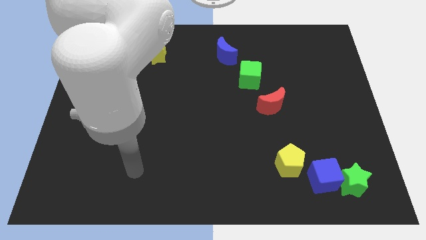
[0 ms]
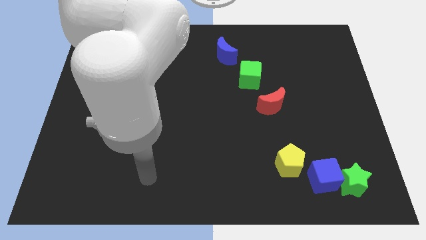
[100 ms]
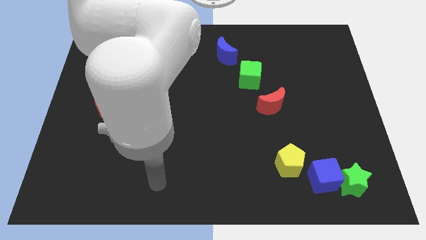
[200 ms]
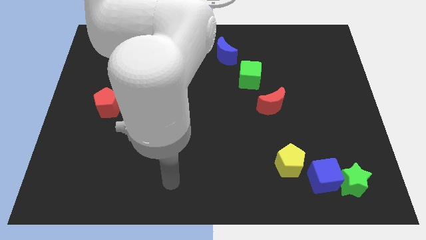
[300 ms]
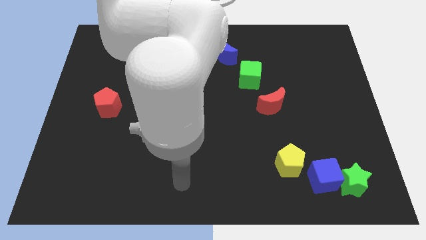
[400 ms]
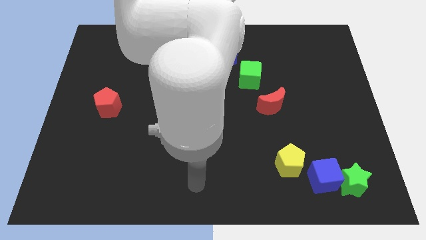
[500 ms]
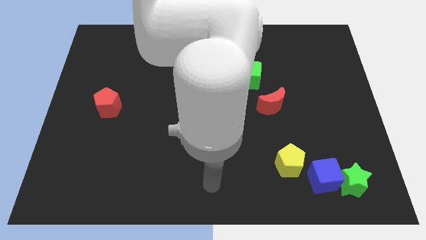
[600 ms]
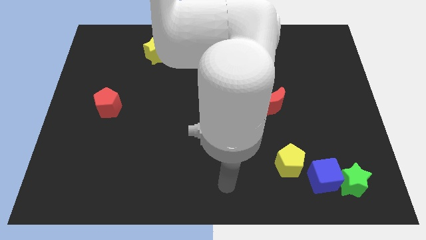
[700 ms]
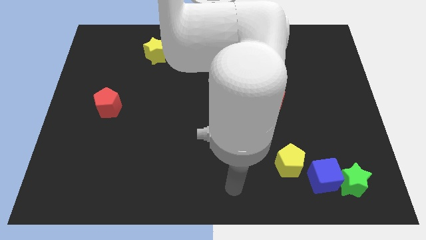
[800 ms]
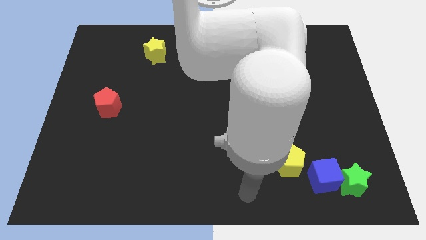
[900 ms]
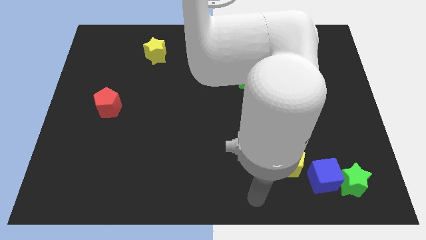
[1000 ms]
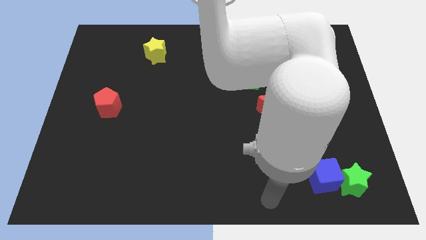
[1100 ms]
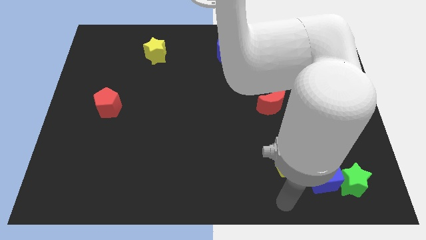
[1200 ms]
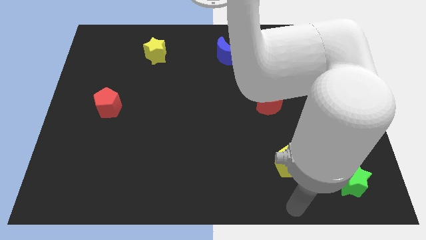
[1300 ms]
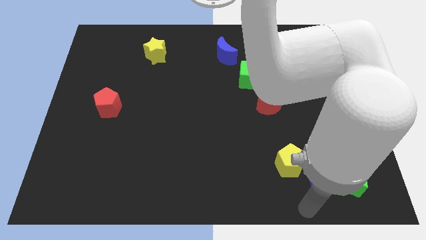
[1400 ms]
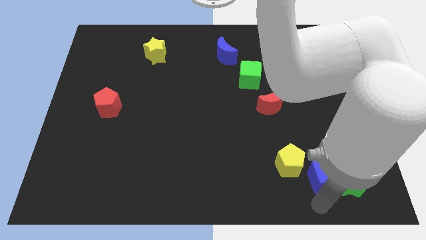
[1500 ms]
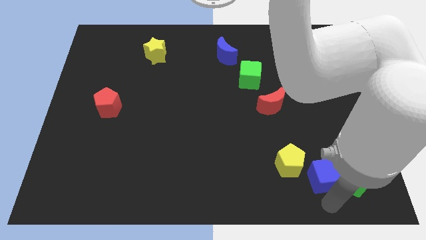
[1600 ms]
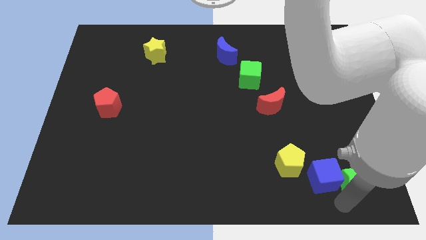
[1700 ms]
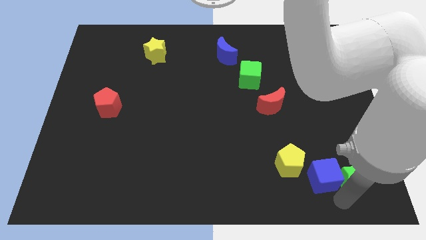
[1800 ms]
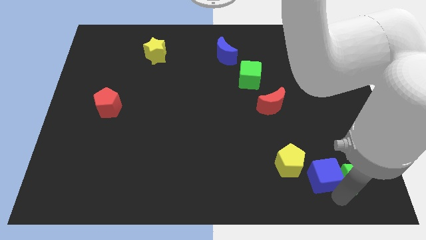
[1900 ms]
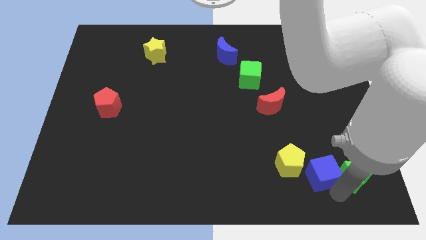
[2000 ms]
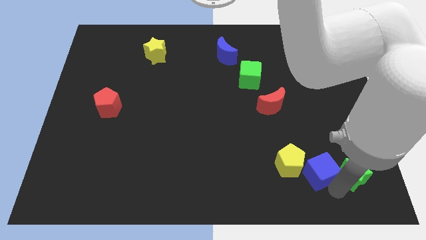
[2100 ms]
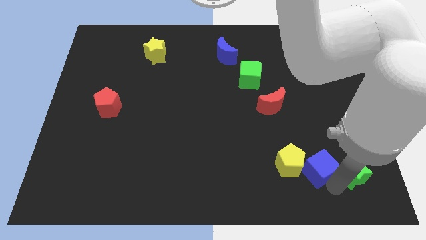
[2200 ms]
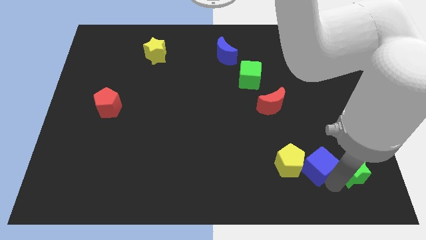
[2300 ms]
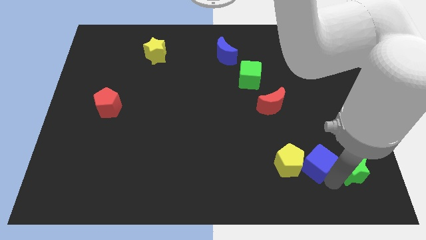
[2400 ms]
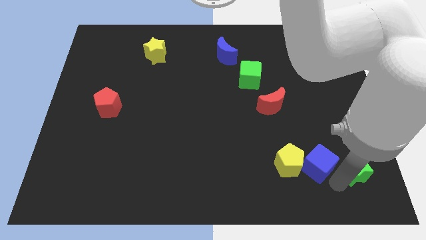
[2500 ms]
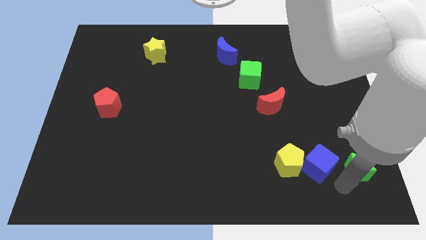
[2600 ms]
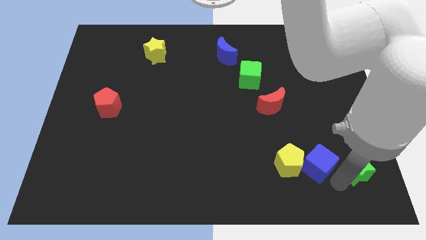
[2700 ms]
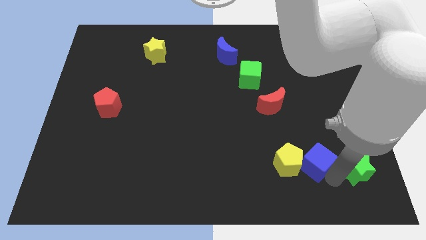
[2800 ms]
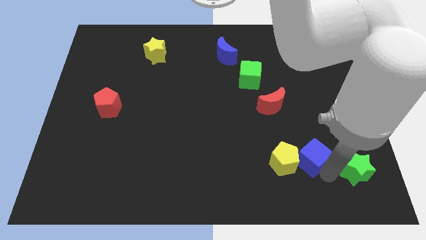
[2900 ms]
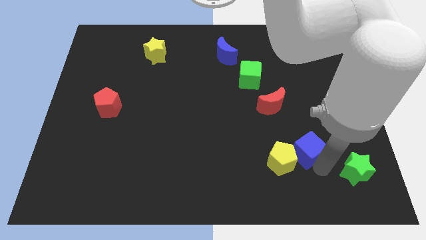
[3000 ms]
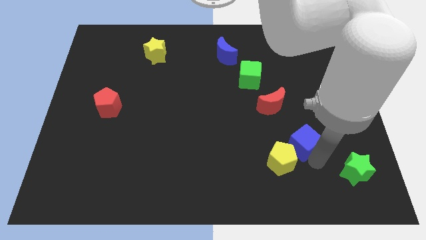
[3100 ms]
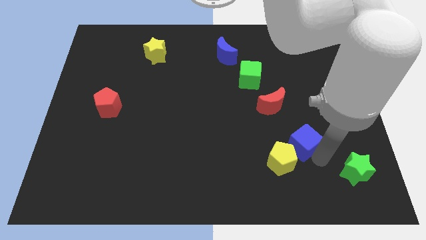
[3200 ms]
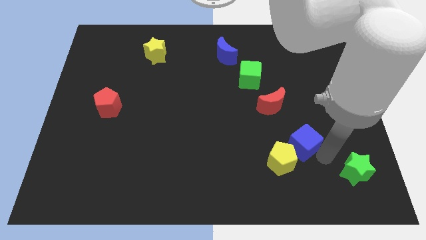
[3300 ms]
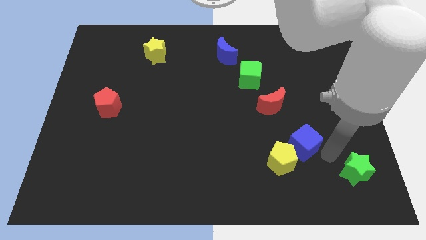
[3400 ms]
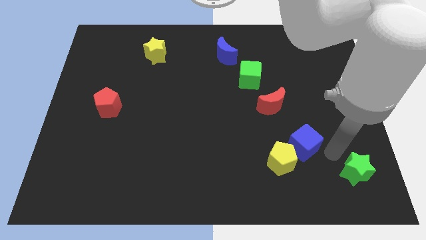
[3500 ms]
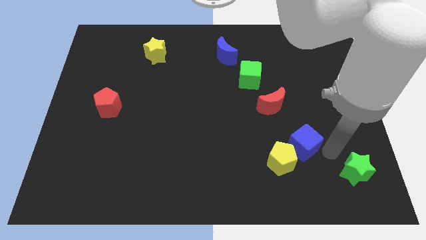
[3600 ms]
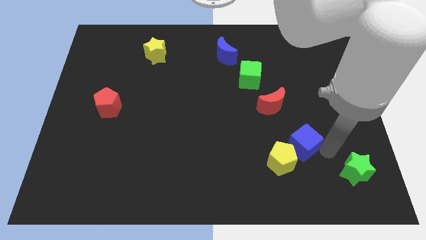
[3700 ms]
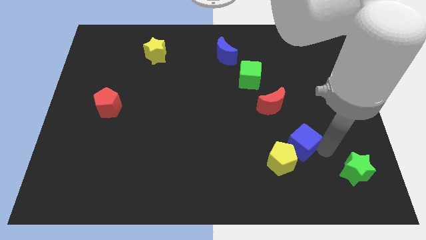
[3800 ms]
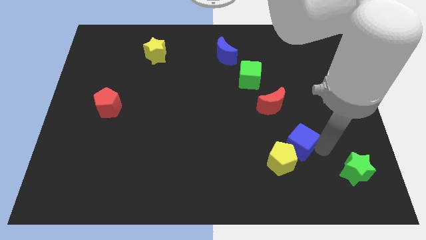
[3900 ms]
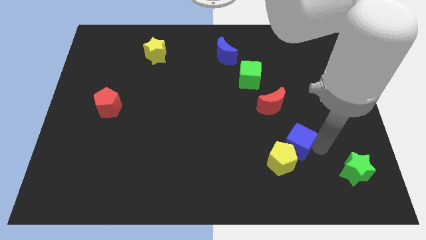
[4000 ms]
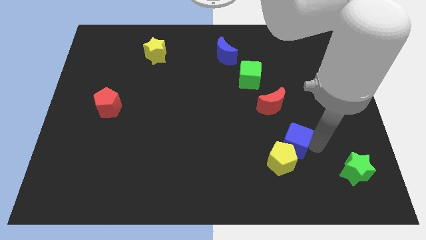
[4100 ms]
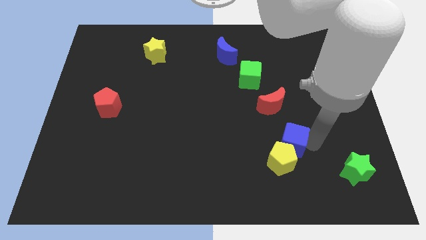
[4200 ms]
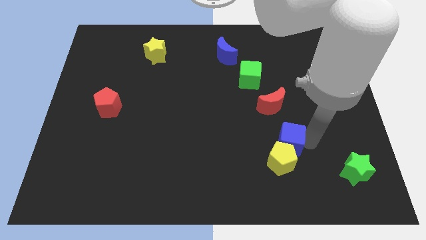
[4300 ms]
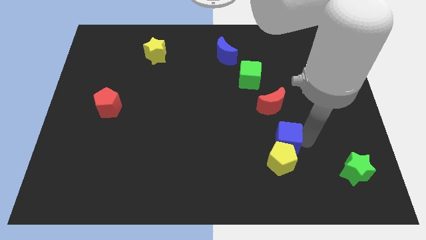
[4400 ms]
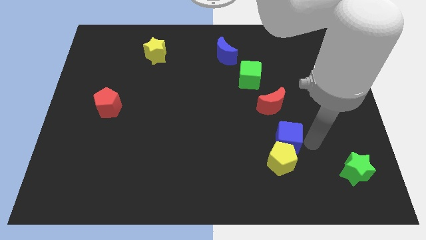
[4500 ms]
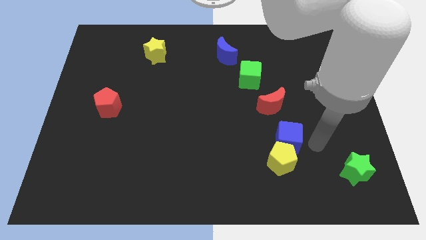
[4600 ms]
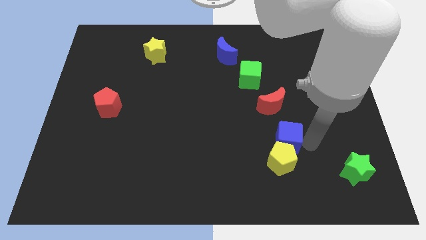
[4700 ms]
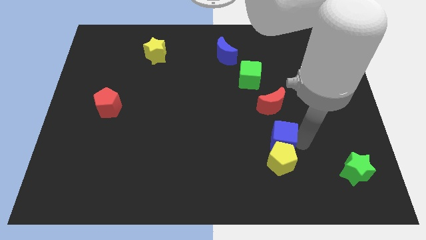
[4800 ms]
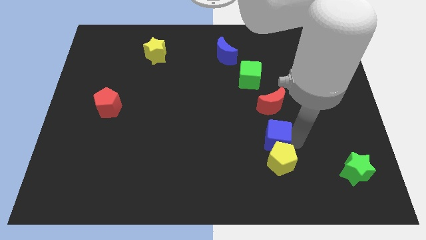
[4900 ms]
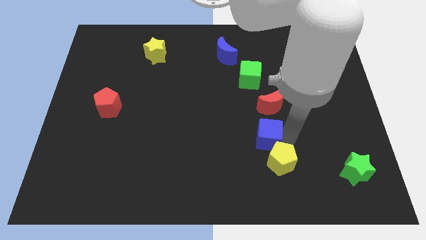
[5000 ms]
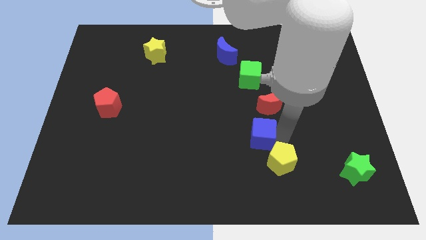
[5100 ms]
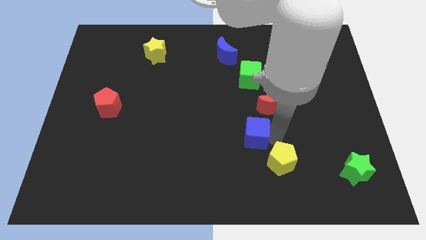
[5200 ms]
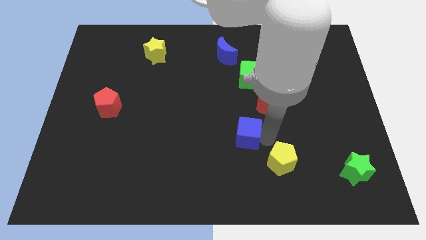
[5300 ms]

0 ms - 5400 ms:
put the blue cube to the center of the board
